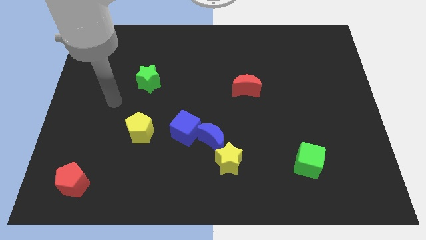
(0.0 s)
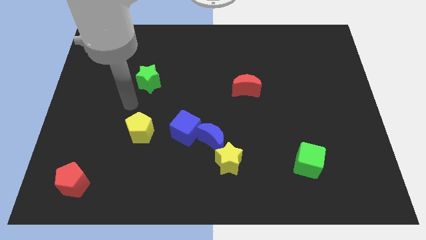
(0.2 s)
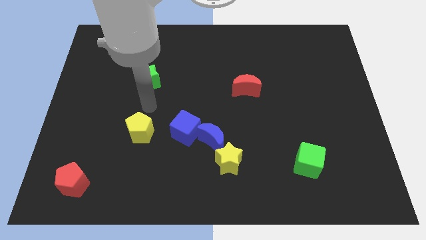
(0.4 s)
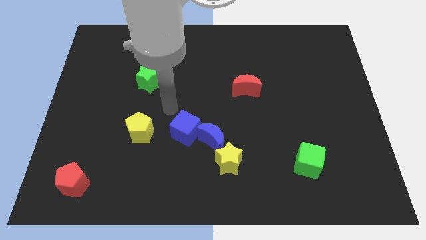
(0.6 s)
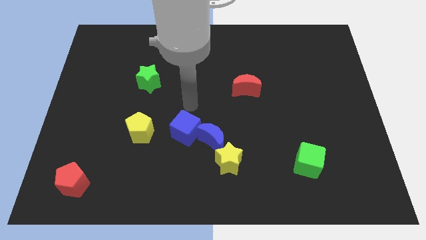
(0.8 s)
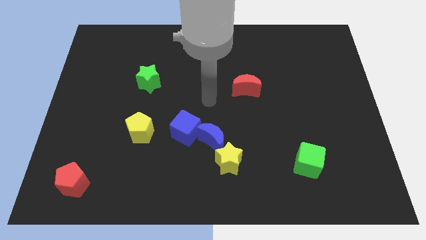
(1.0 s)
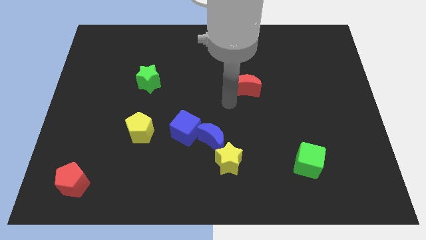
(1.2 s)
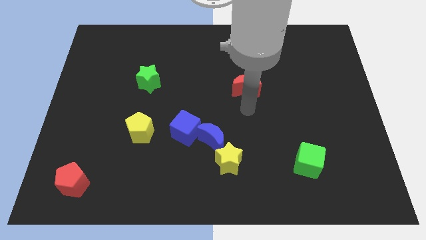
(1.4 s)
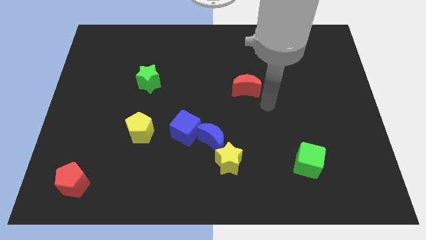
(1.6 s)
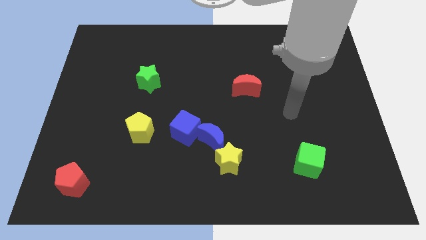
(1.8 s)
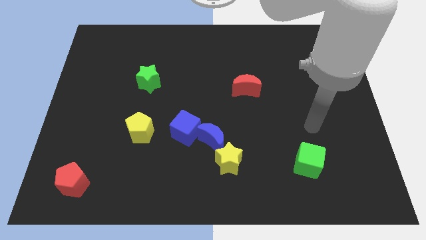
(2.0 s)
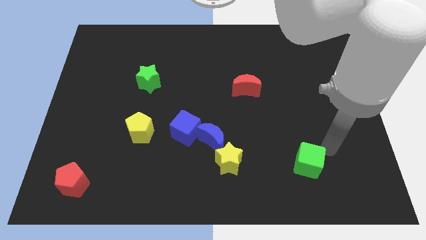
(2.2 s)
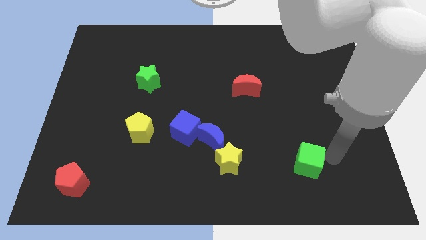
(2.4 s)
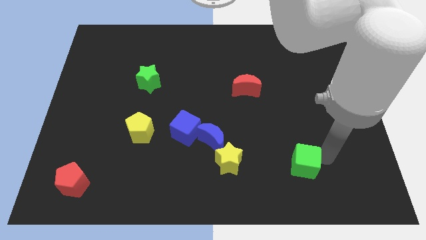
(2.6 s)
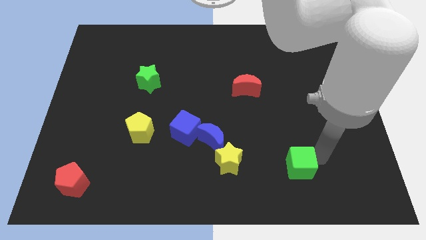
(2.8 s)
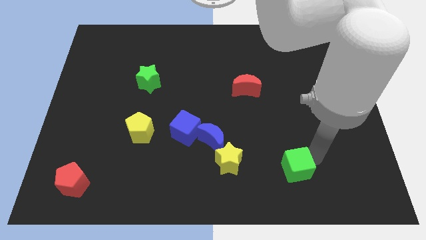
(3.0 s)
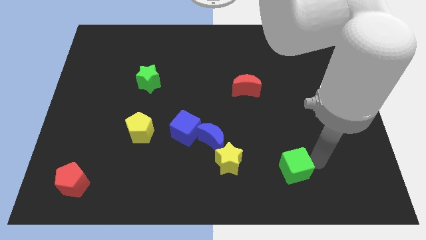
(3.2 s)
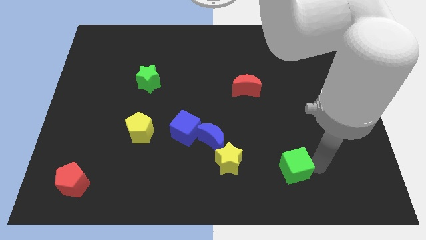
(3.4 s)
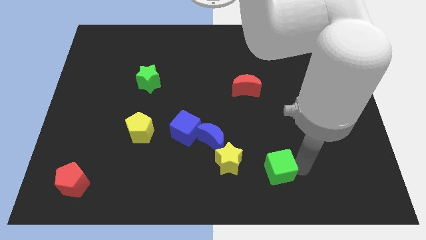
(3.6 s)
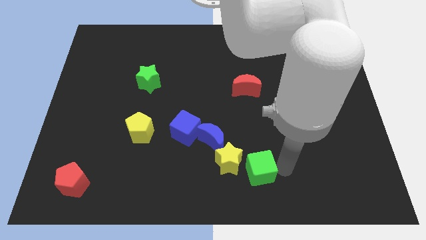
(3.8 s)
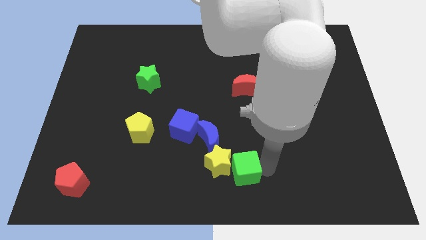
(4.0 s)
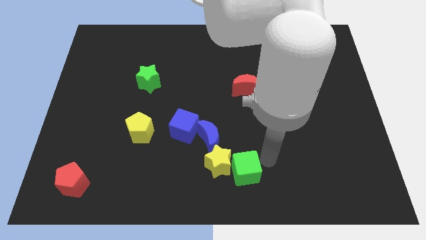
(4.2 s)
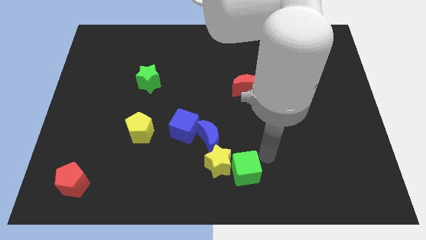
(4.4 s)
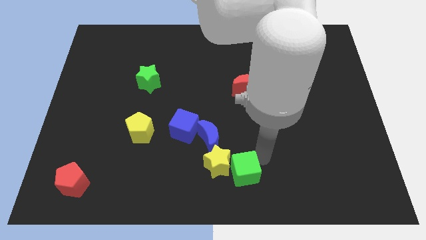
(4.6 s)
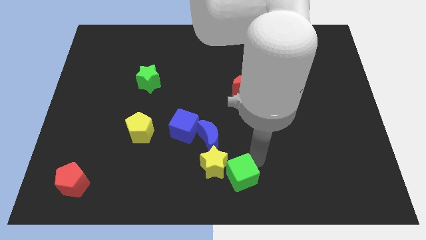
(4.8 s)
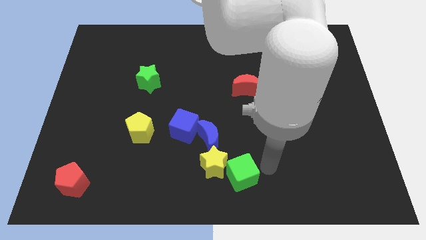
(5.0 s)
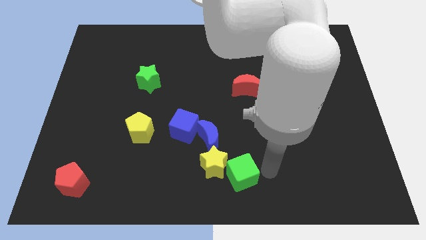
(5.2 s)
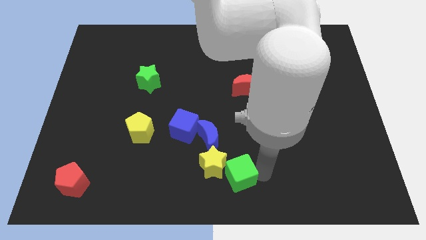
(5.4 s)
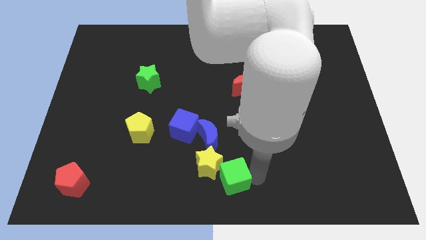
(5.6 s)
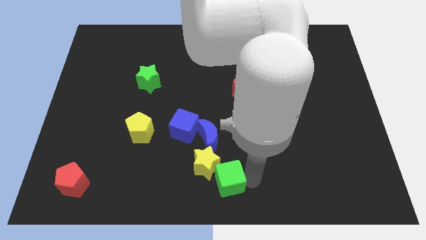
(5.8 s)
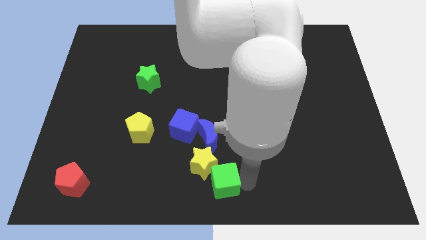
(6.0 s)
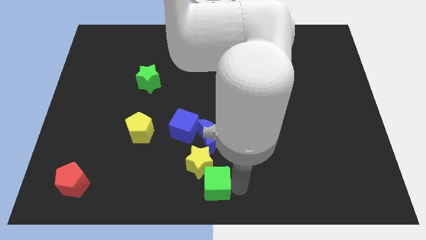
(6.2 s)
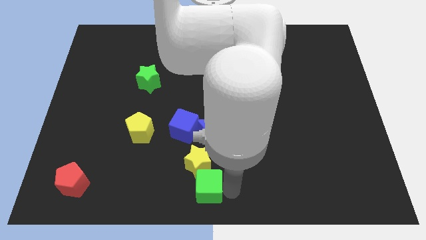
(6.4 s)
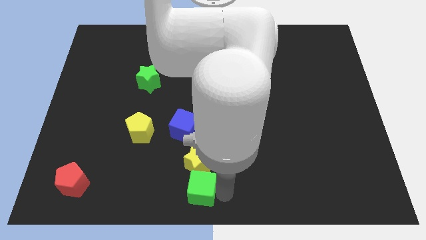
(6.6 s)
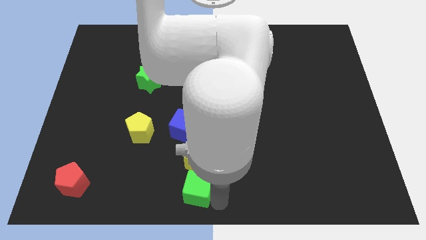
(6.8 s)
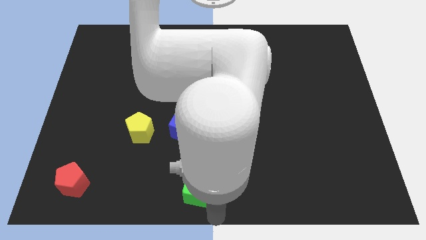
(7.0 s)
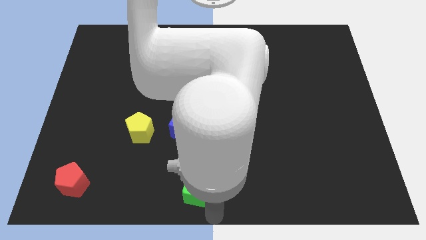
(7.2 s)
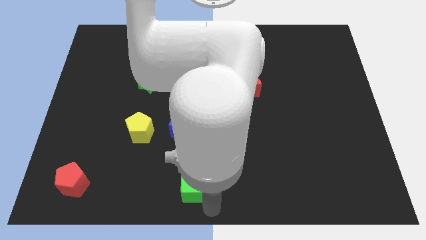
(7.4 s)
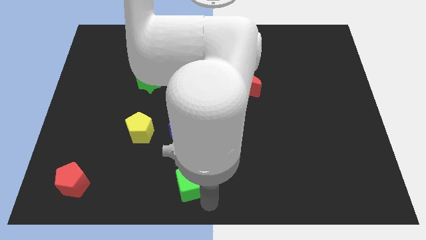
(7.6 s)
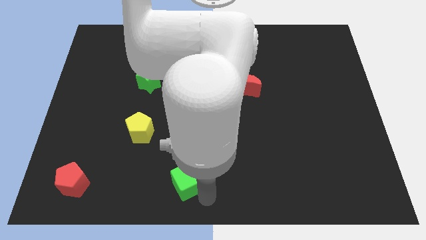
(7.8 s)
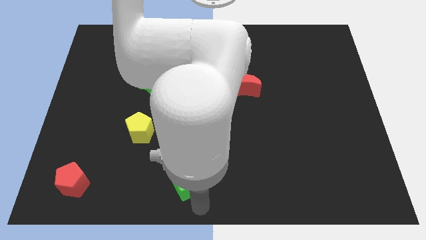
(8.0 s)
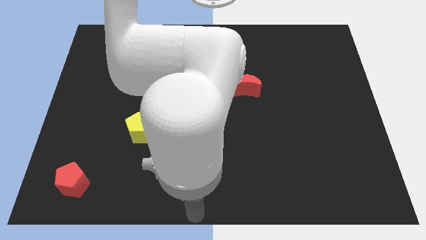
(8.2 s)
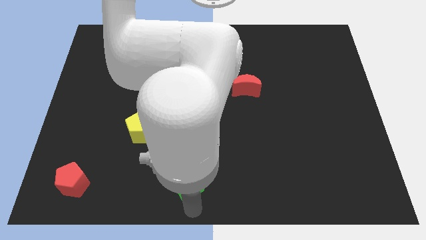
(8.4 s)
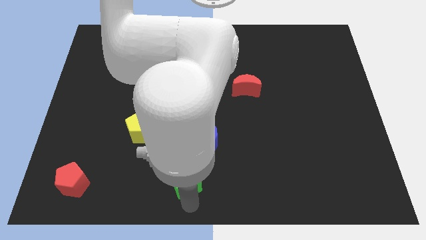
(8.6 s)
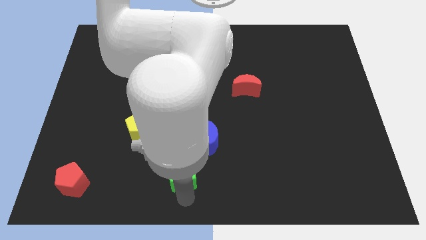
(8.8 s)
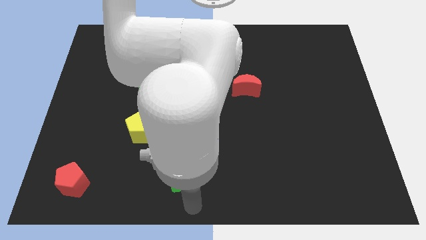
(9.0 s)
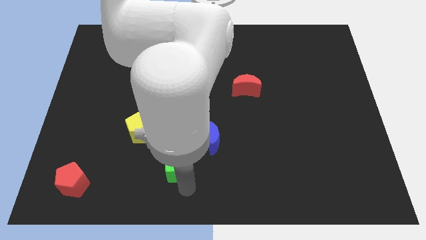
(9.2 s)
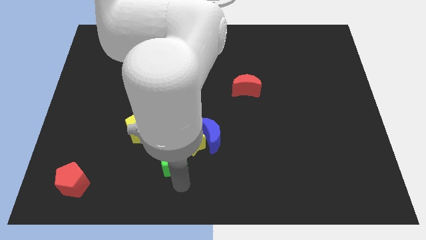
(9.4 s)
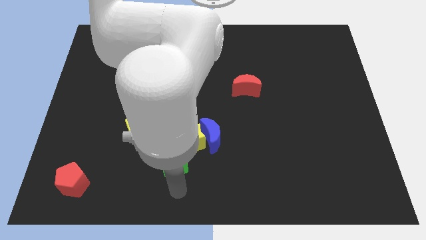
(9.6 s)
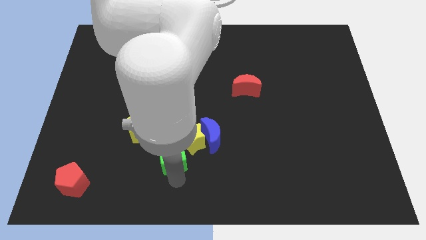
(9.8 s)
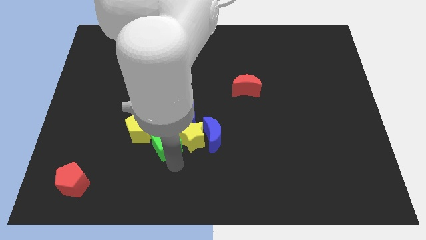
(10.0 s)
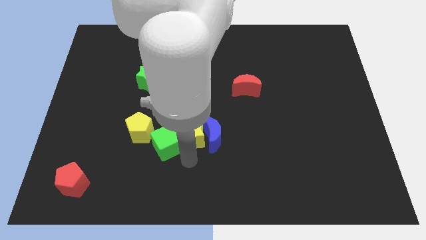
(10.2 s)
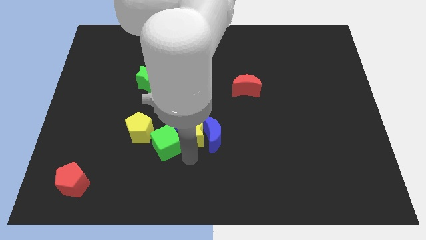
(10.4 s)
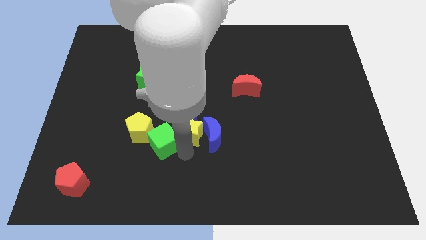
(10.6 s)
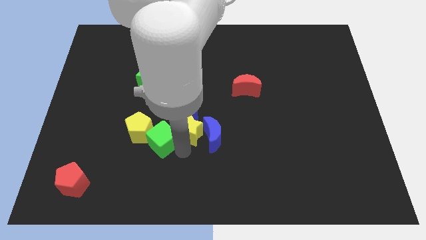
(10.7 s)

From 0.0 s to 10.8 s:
slide the green cube next to the yellow pentagon

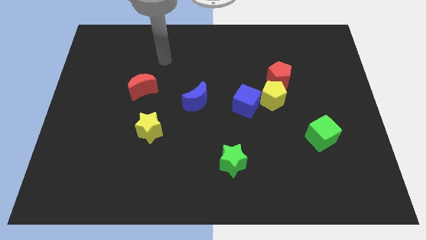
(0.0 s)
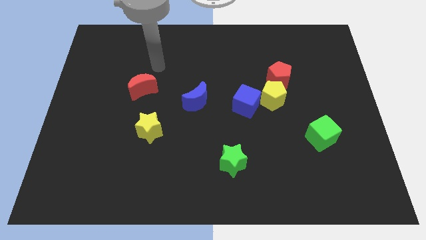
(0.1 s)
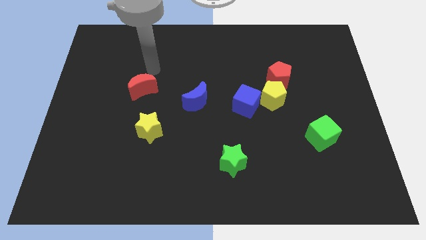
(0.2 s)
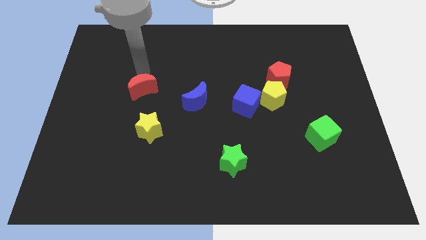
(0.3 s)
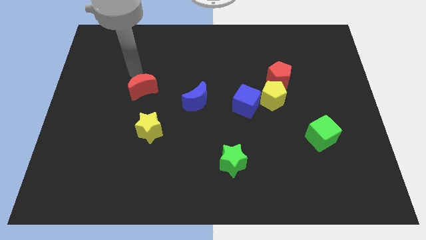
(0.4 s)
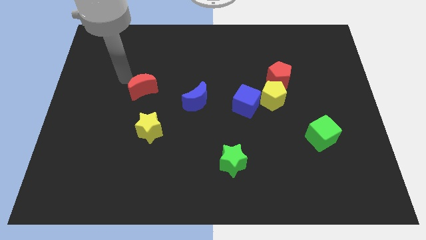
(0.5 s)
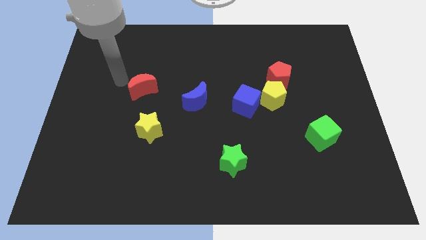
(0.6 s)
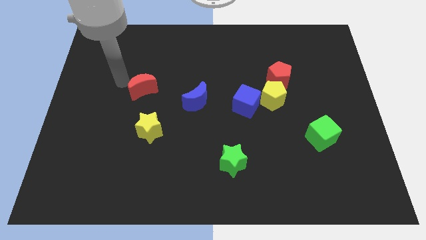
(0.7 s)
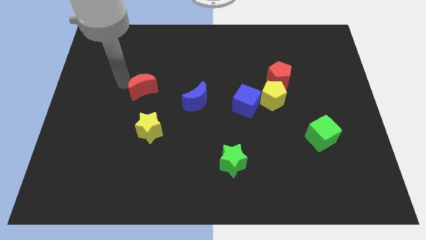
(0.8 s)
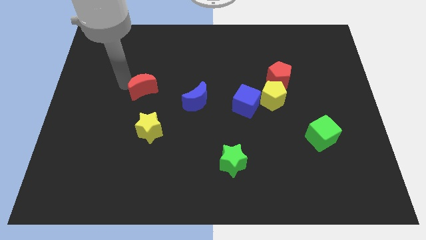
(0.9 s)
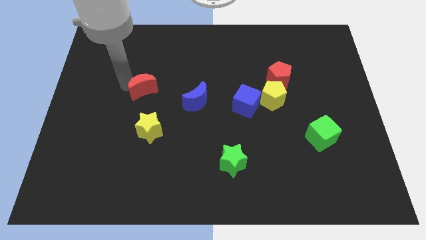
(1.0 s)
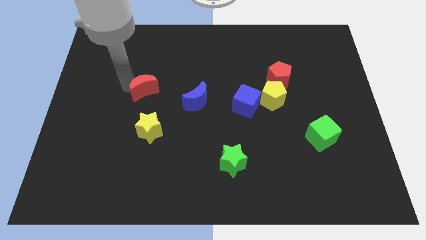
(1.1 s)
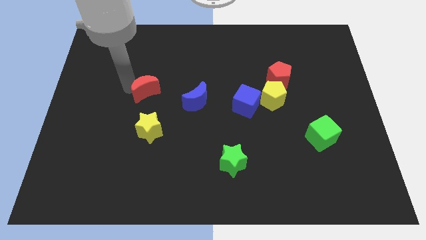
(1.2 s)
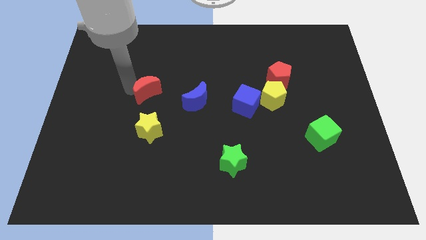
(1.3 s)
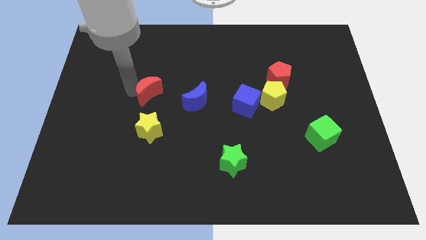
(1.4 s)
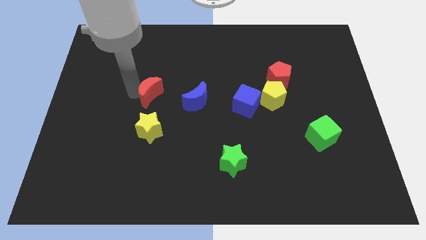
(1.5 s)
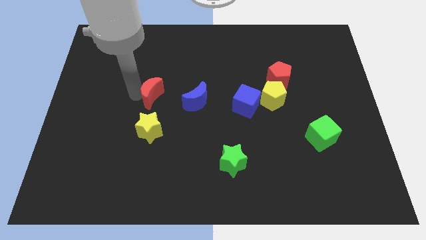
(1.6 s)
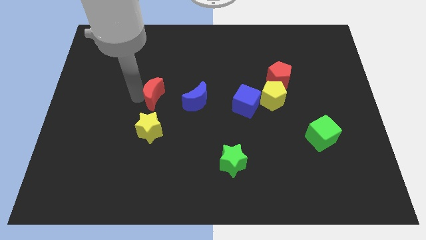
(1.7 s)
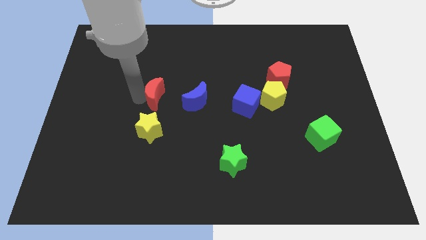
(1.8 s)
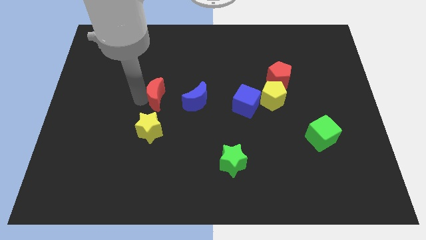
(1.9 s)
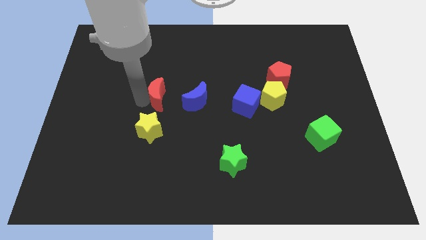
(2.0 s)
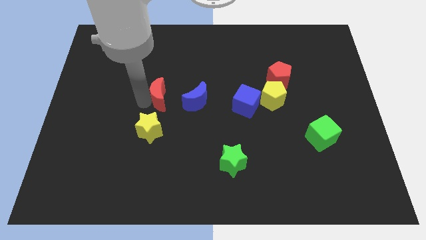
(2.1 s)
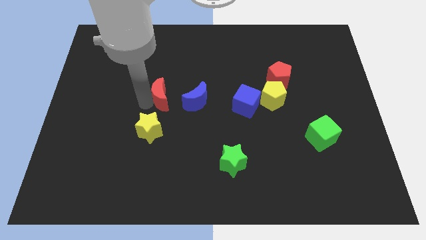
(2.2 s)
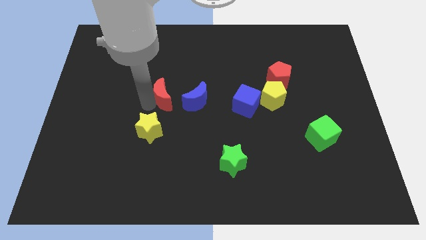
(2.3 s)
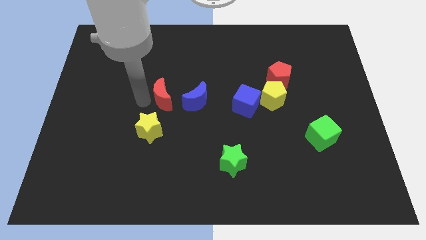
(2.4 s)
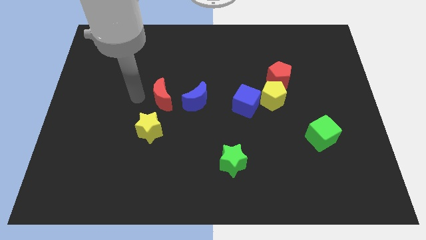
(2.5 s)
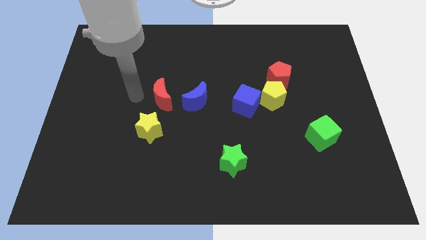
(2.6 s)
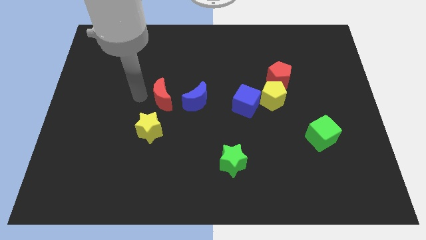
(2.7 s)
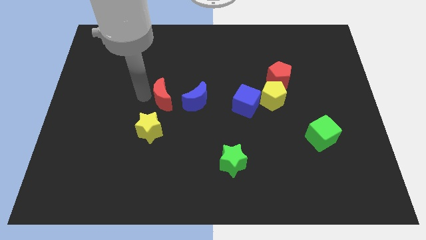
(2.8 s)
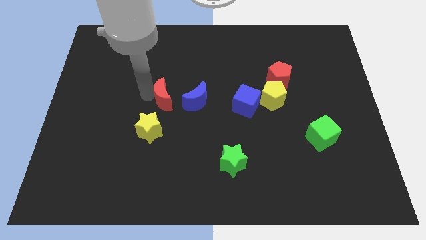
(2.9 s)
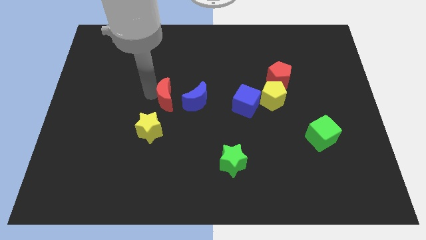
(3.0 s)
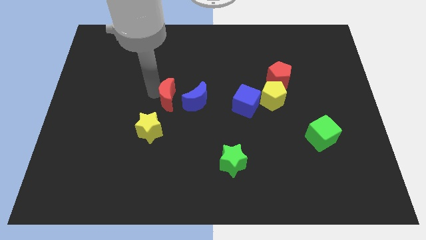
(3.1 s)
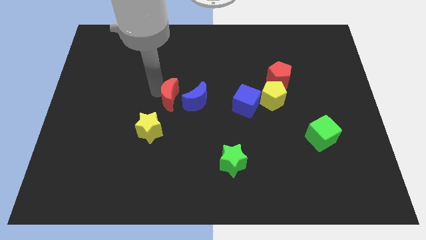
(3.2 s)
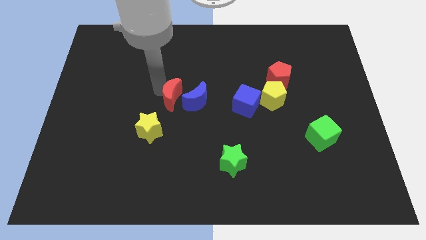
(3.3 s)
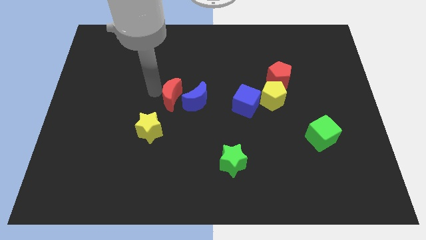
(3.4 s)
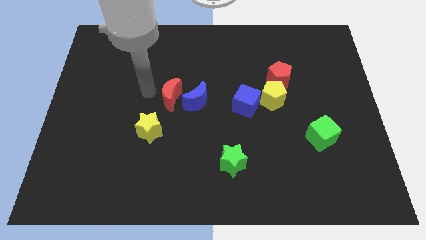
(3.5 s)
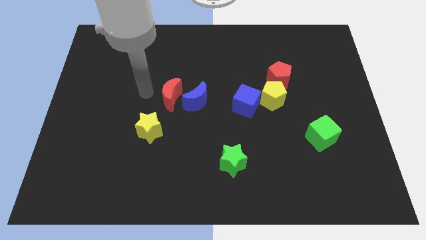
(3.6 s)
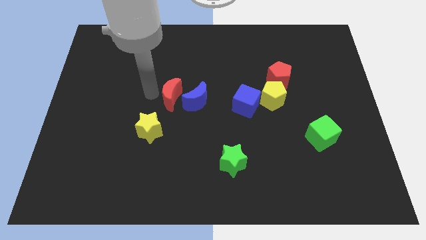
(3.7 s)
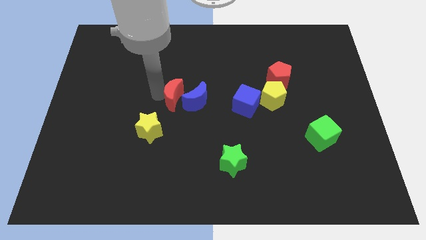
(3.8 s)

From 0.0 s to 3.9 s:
put the red moon close to the blue moon
